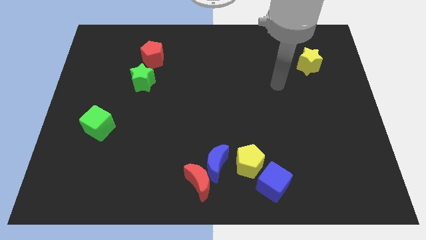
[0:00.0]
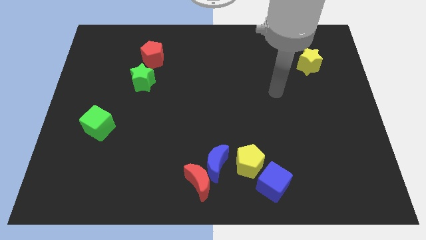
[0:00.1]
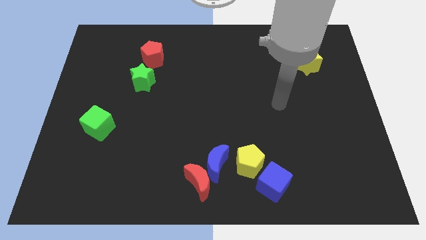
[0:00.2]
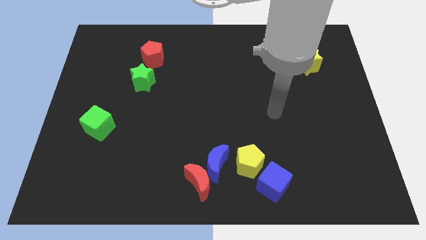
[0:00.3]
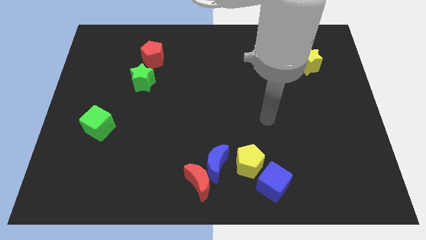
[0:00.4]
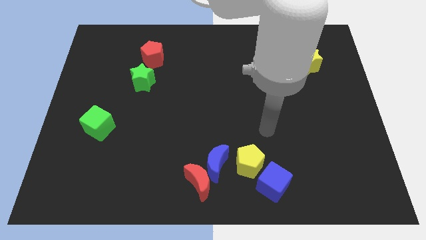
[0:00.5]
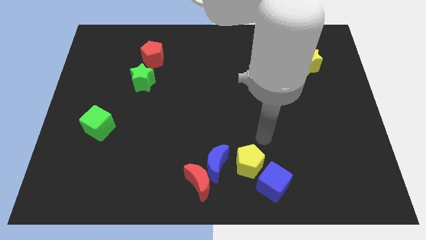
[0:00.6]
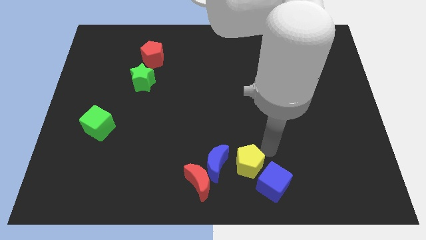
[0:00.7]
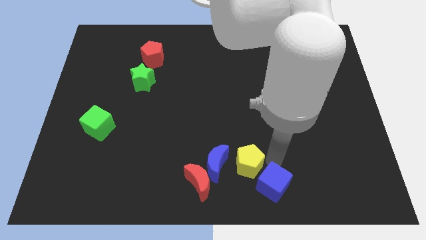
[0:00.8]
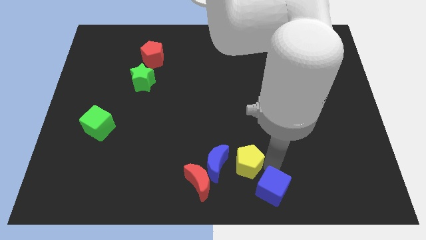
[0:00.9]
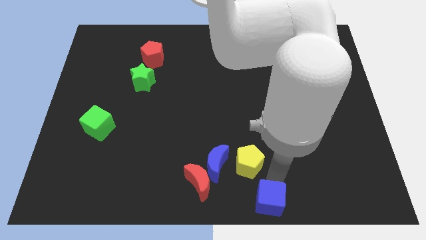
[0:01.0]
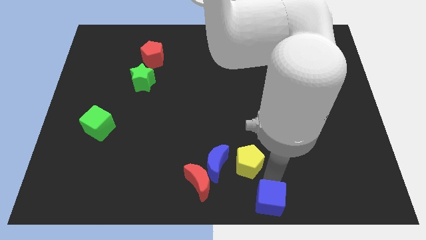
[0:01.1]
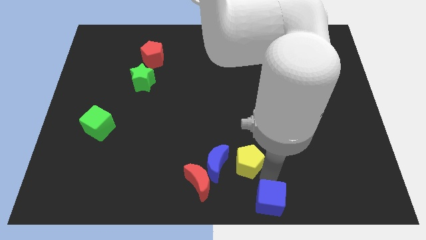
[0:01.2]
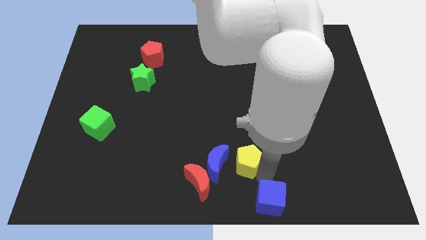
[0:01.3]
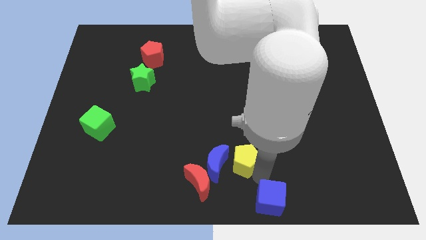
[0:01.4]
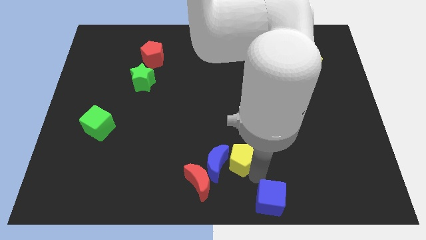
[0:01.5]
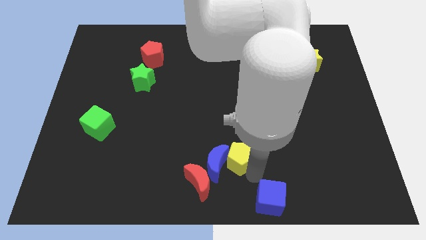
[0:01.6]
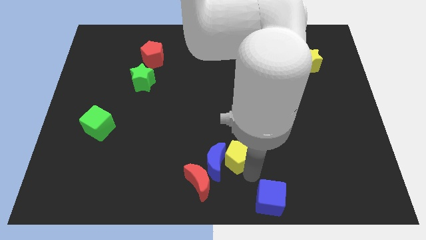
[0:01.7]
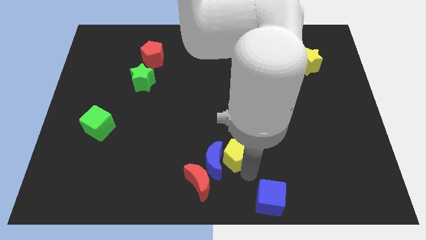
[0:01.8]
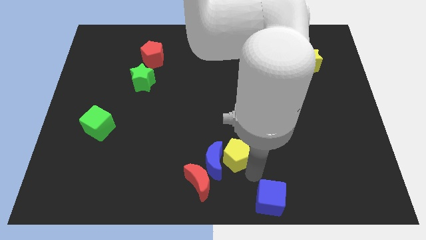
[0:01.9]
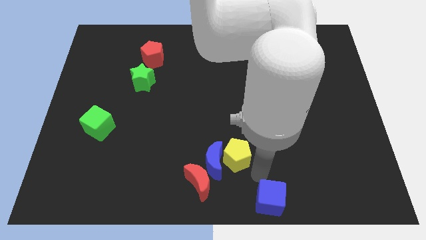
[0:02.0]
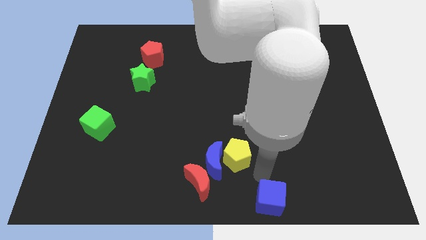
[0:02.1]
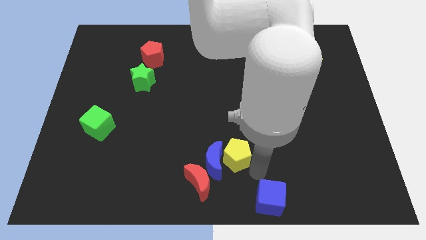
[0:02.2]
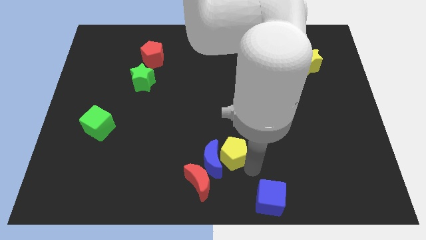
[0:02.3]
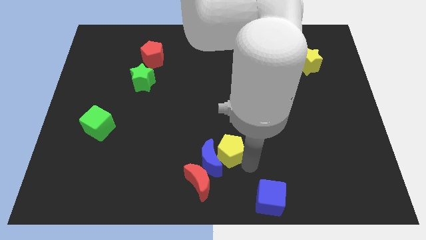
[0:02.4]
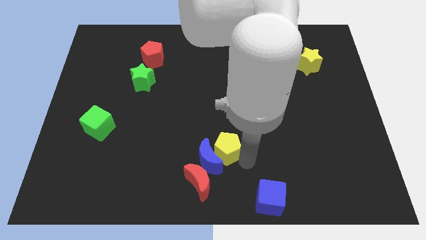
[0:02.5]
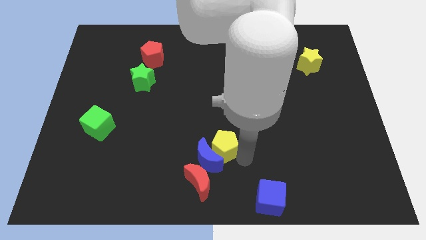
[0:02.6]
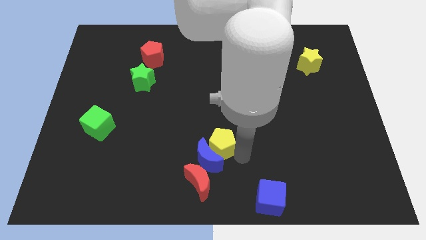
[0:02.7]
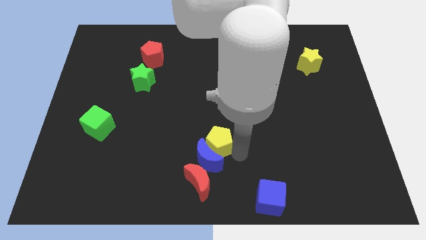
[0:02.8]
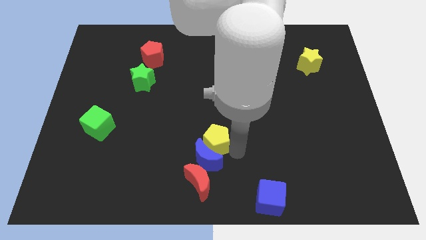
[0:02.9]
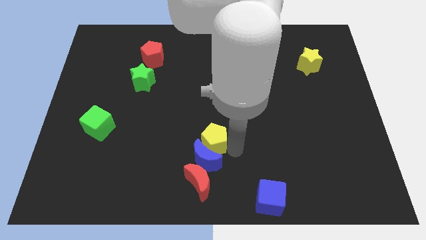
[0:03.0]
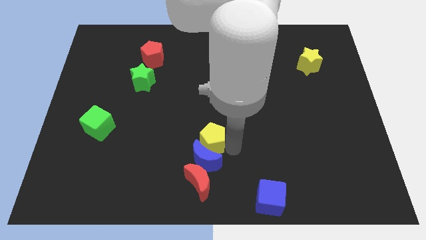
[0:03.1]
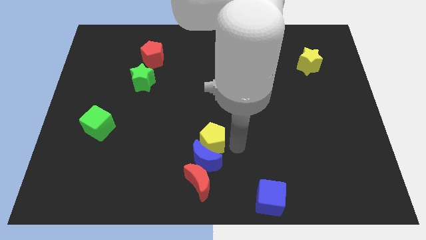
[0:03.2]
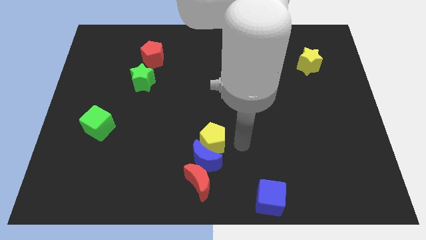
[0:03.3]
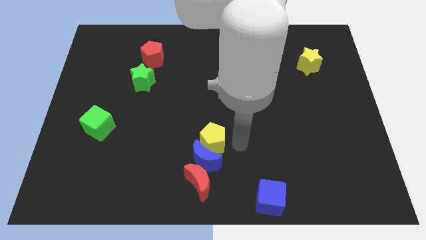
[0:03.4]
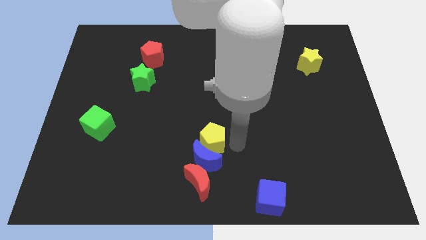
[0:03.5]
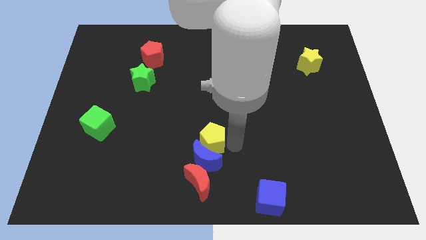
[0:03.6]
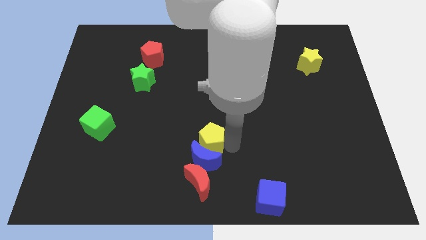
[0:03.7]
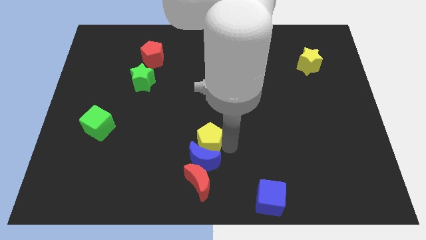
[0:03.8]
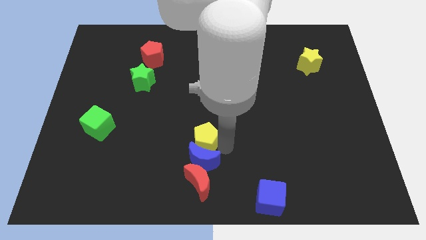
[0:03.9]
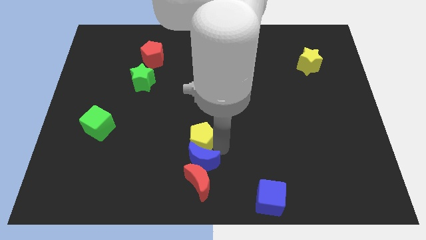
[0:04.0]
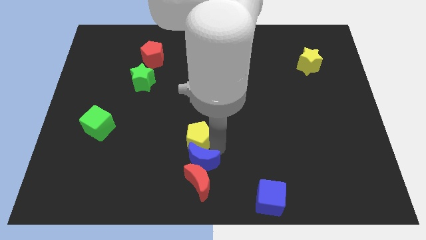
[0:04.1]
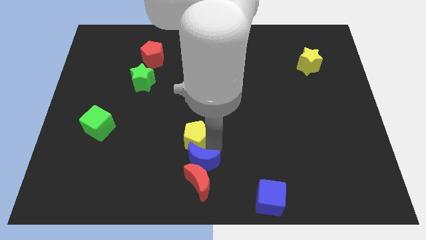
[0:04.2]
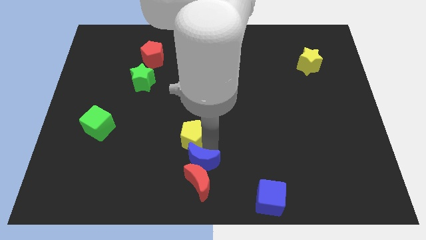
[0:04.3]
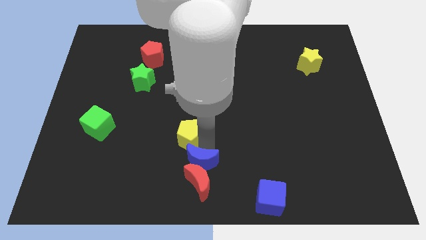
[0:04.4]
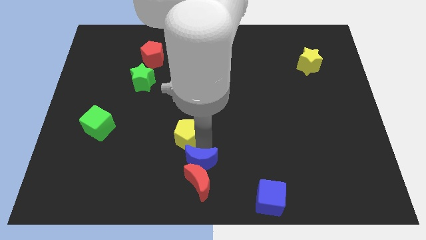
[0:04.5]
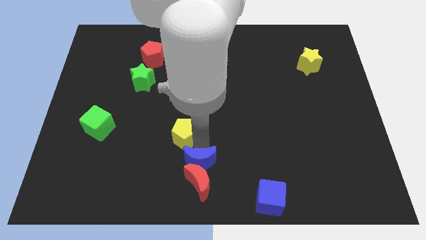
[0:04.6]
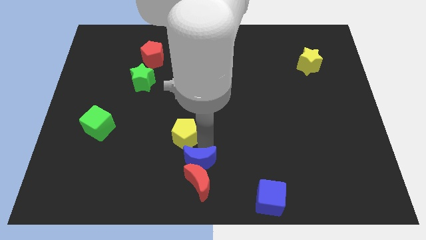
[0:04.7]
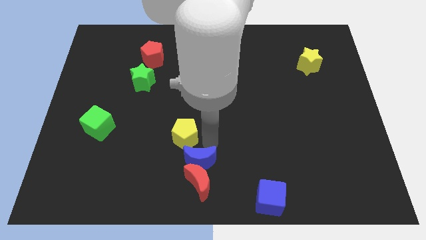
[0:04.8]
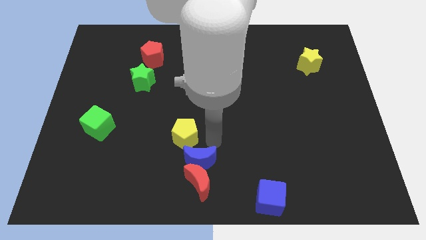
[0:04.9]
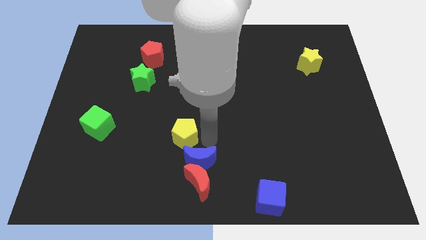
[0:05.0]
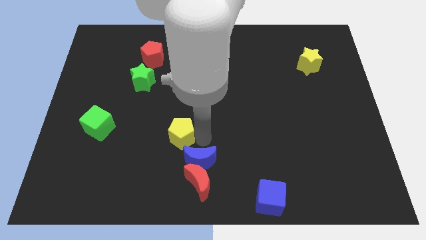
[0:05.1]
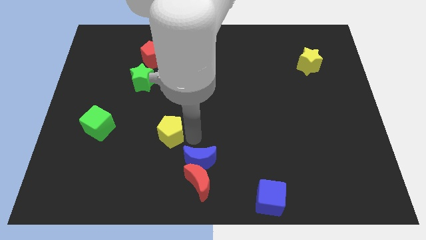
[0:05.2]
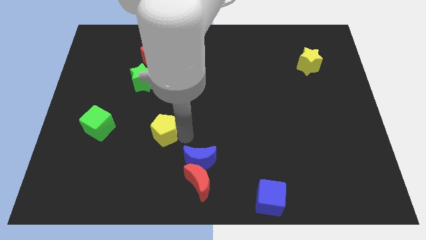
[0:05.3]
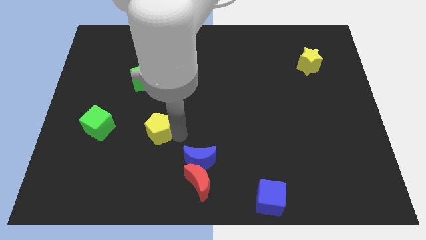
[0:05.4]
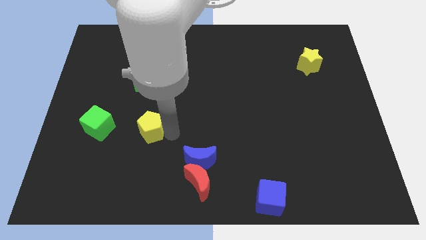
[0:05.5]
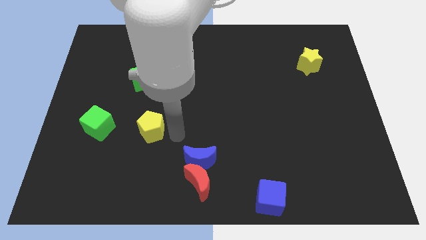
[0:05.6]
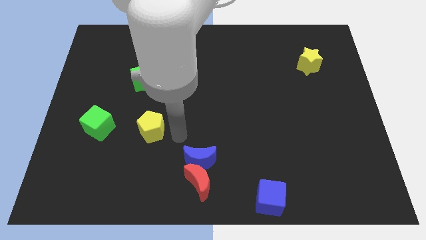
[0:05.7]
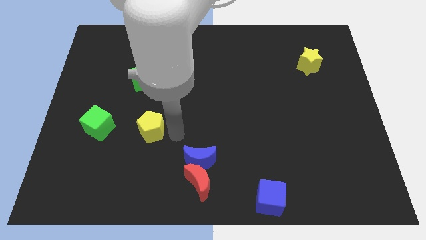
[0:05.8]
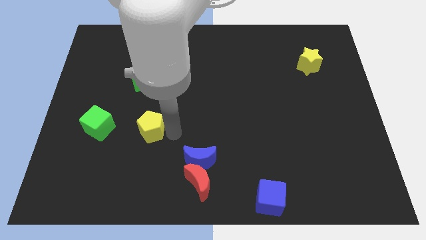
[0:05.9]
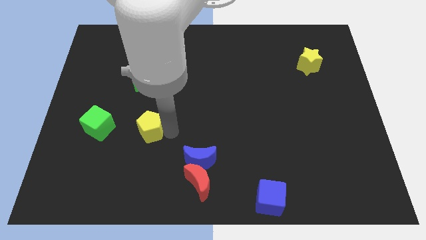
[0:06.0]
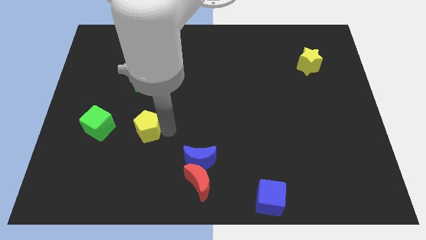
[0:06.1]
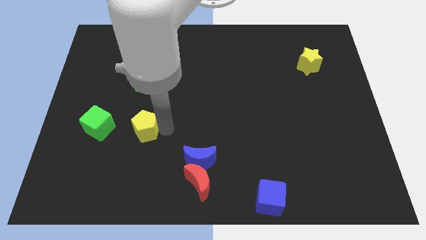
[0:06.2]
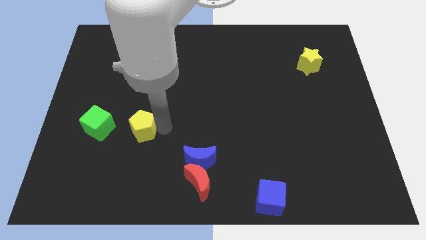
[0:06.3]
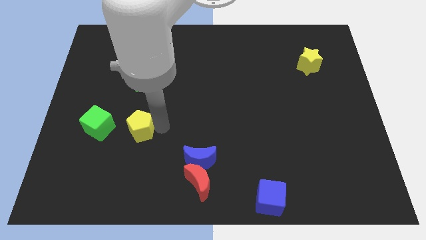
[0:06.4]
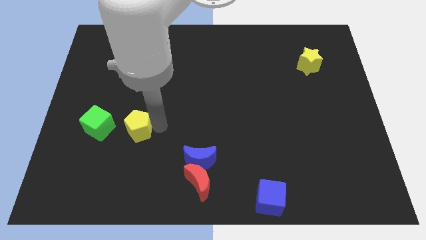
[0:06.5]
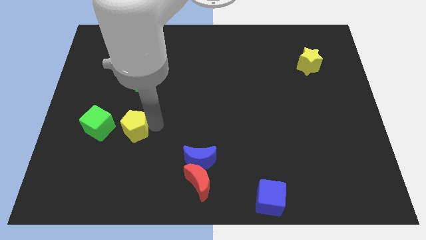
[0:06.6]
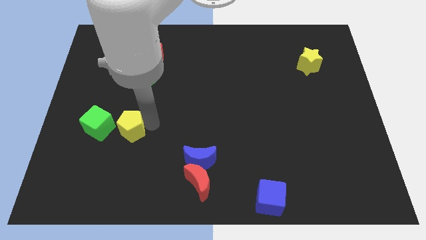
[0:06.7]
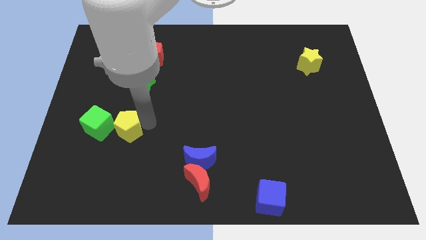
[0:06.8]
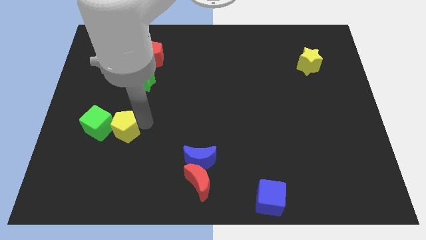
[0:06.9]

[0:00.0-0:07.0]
push the yellow pentagon close to the green cube
